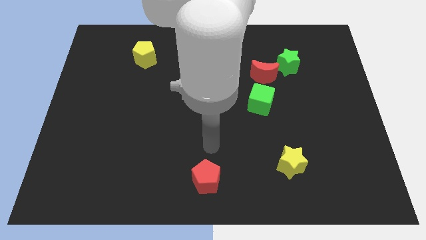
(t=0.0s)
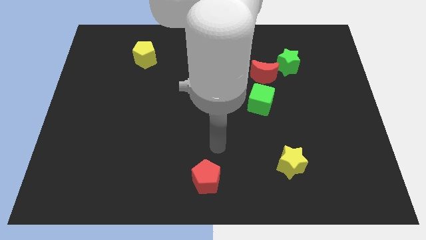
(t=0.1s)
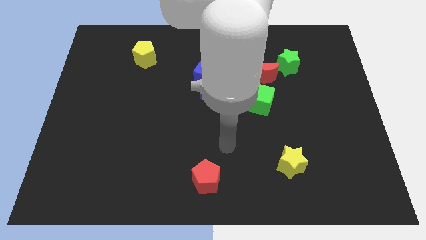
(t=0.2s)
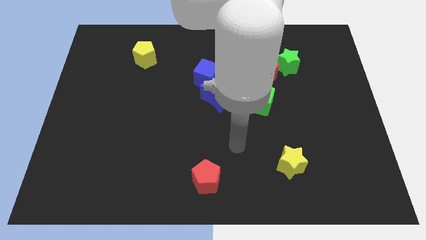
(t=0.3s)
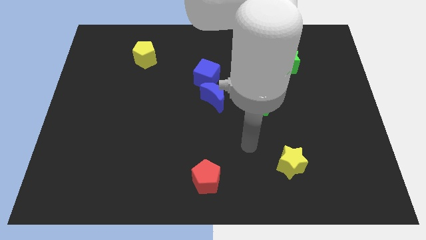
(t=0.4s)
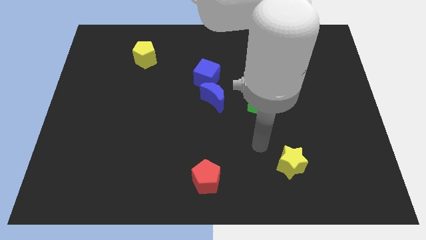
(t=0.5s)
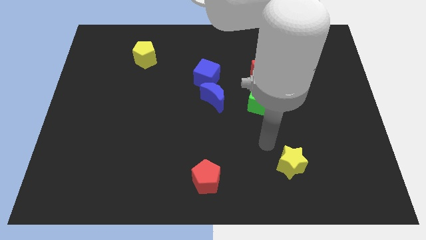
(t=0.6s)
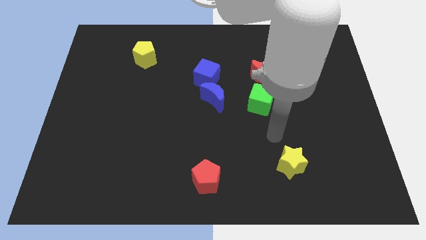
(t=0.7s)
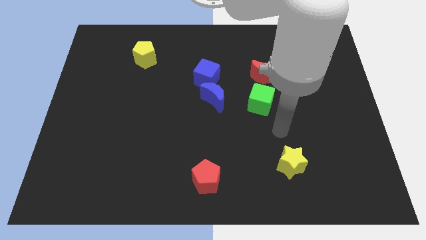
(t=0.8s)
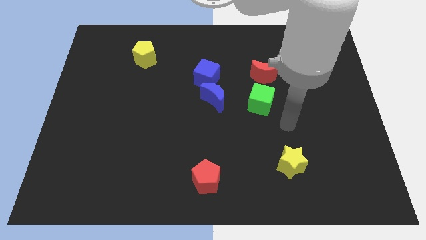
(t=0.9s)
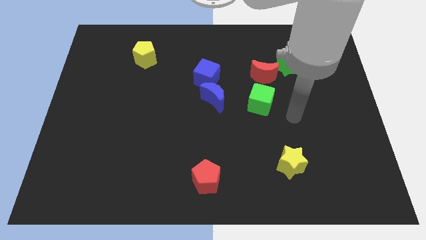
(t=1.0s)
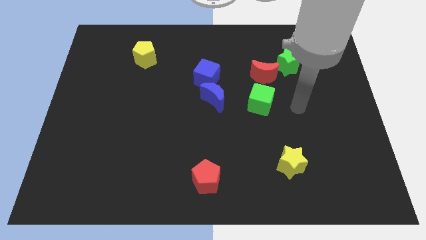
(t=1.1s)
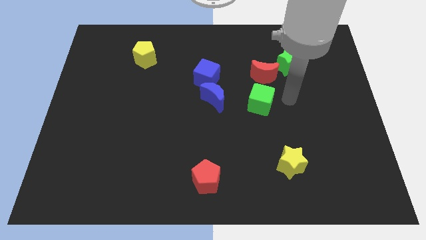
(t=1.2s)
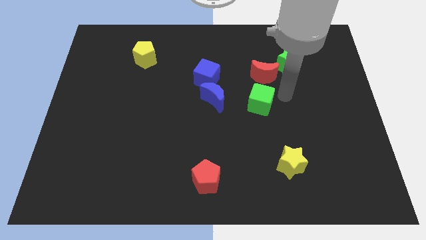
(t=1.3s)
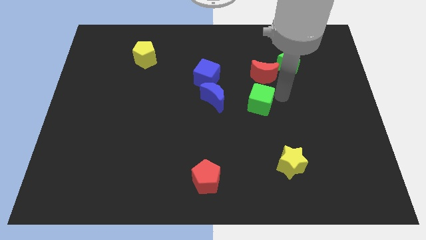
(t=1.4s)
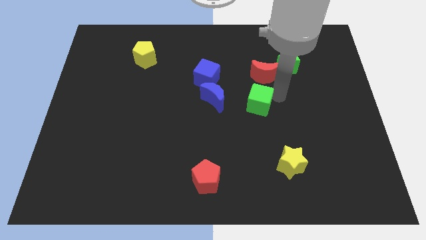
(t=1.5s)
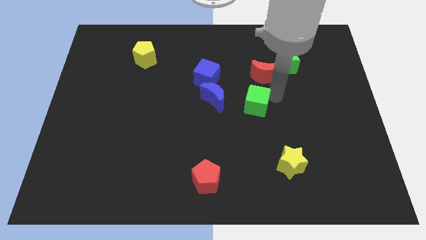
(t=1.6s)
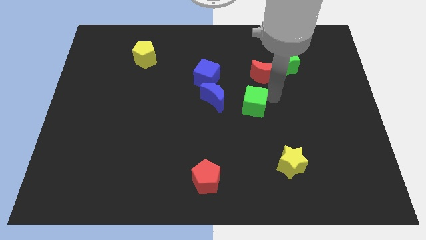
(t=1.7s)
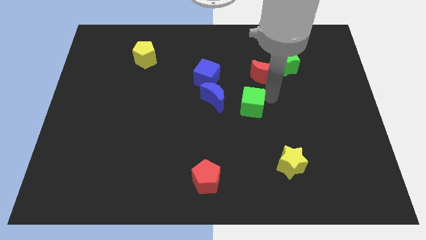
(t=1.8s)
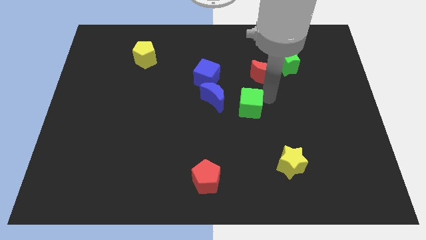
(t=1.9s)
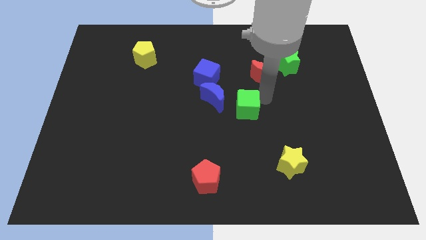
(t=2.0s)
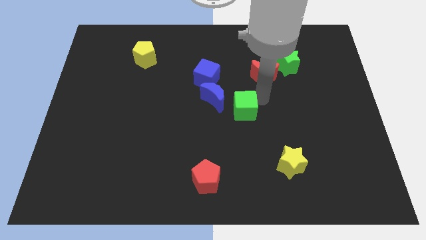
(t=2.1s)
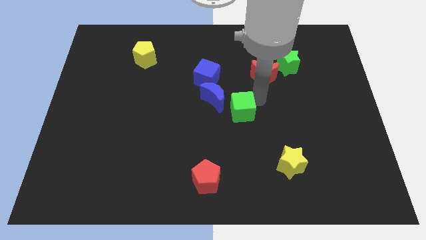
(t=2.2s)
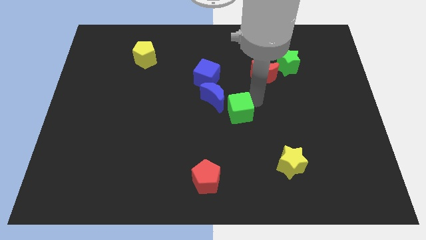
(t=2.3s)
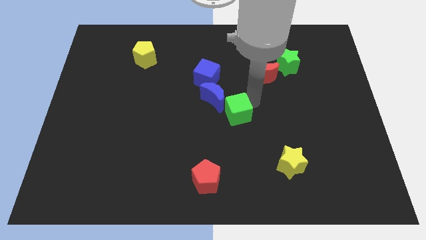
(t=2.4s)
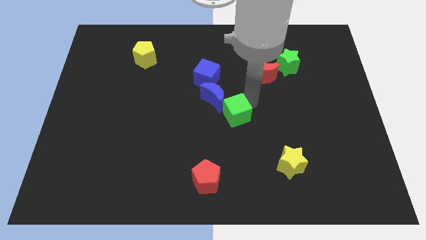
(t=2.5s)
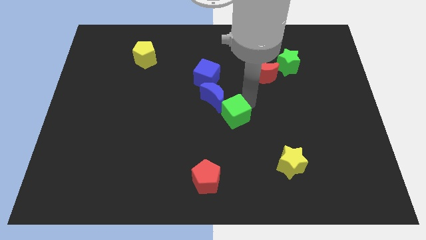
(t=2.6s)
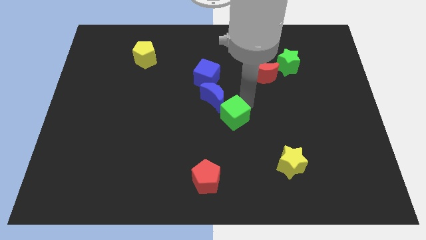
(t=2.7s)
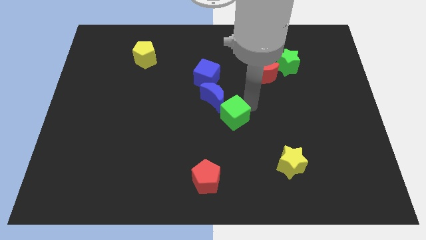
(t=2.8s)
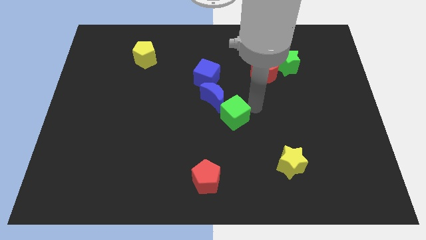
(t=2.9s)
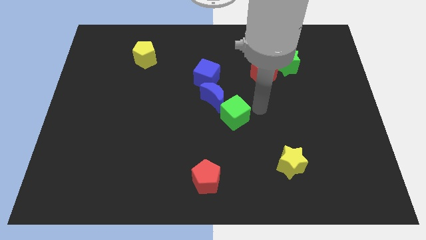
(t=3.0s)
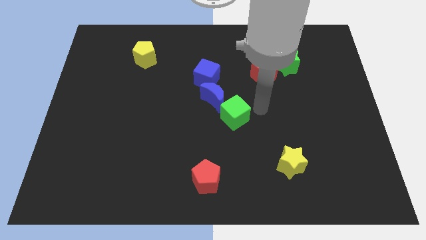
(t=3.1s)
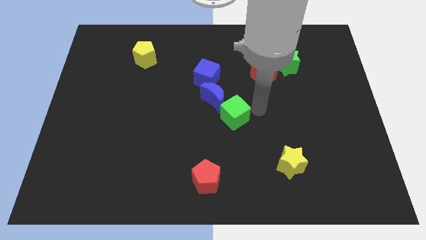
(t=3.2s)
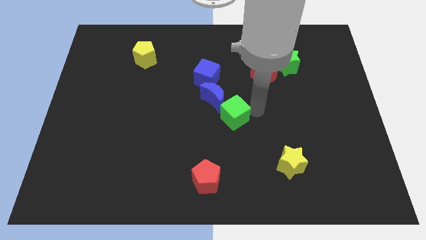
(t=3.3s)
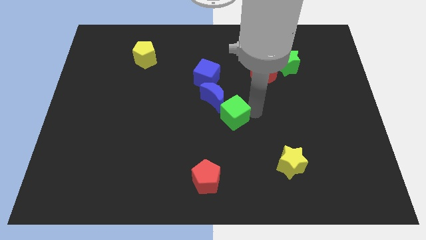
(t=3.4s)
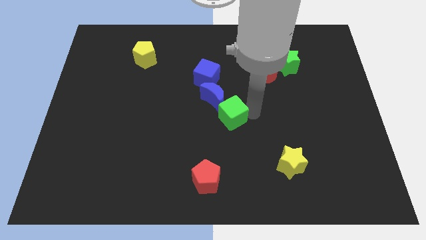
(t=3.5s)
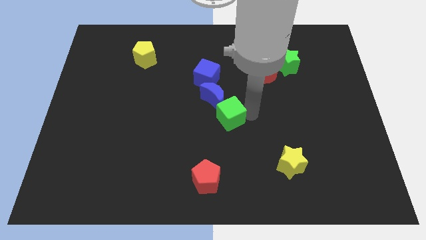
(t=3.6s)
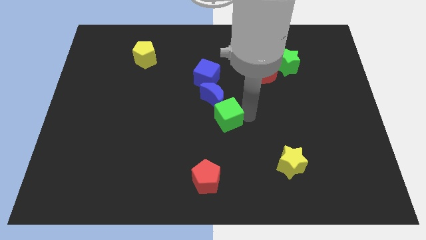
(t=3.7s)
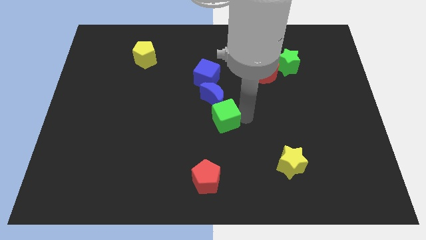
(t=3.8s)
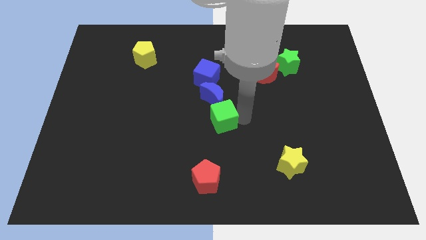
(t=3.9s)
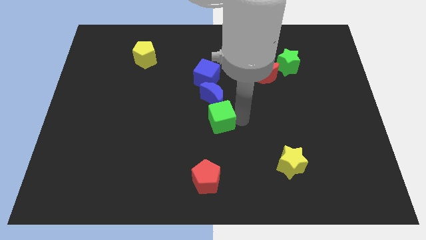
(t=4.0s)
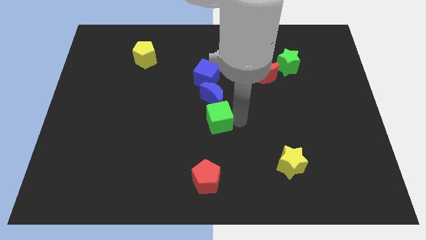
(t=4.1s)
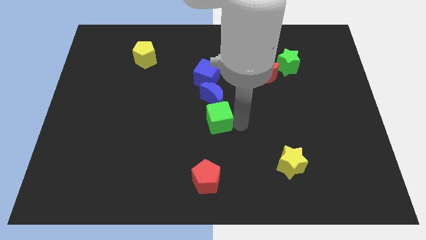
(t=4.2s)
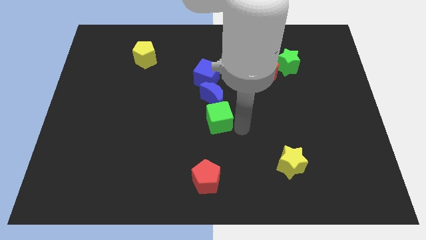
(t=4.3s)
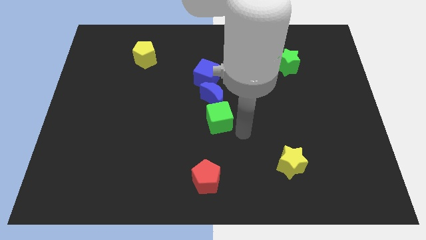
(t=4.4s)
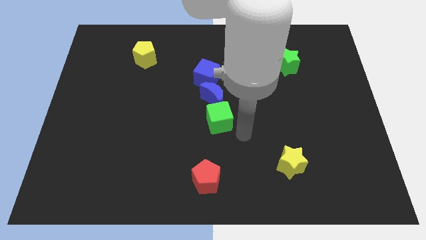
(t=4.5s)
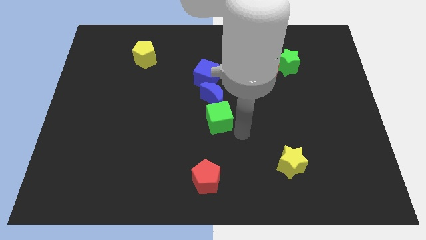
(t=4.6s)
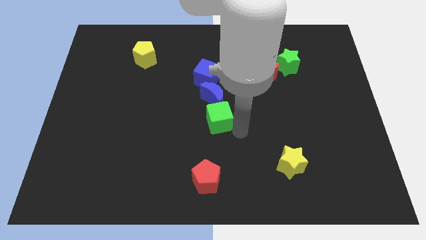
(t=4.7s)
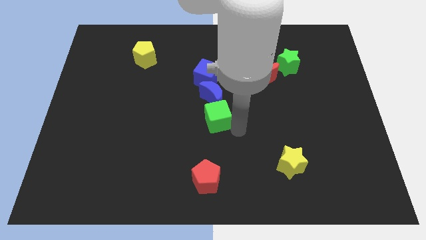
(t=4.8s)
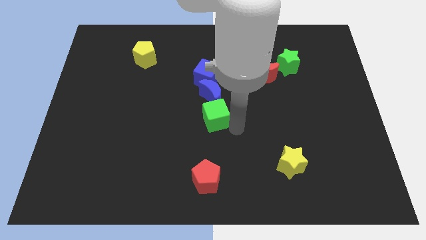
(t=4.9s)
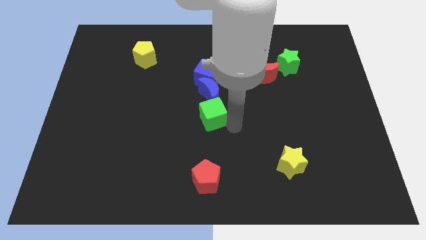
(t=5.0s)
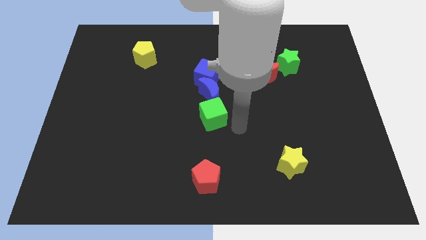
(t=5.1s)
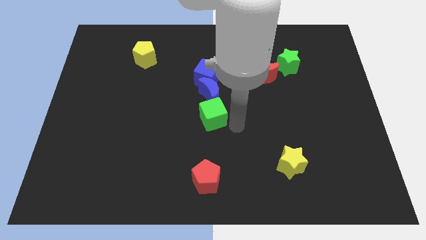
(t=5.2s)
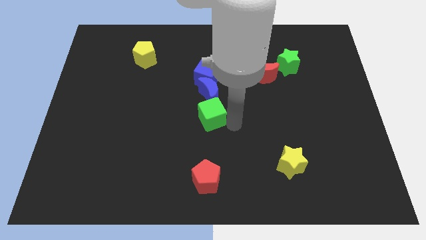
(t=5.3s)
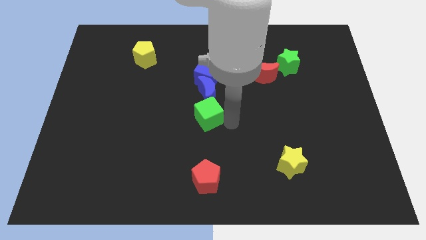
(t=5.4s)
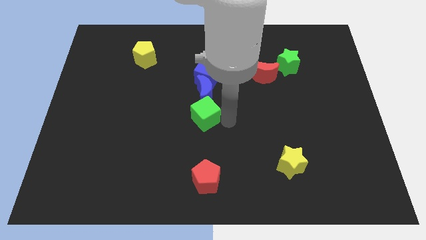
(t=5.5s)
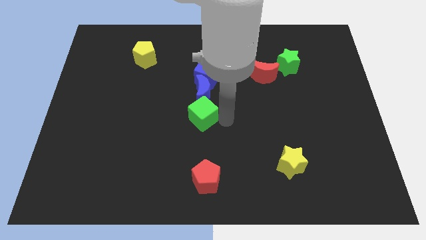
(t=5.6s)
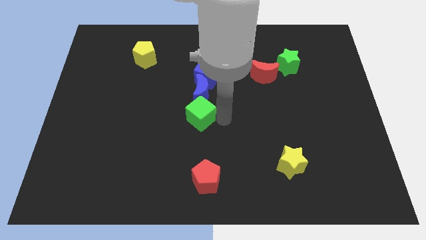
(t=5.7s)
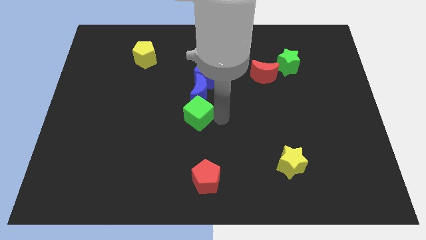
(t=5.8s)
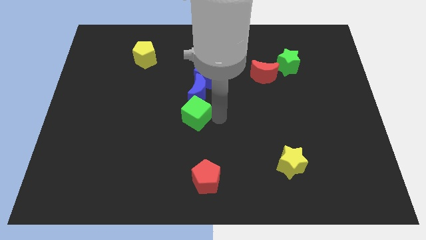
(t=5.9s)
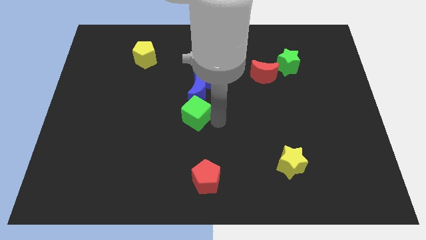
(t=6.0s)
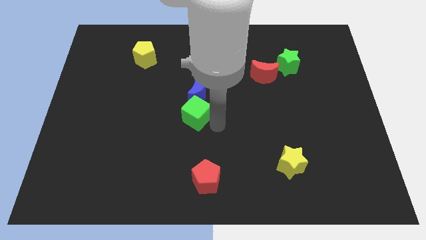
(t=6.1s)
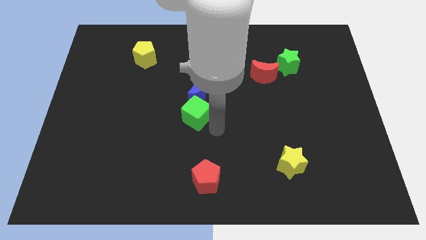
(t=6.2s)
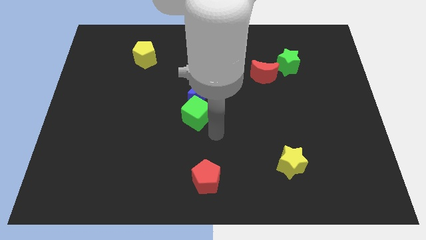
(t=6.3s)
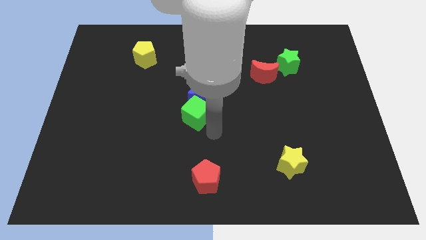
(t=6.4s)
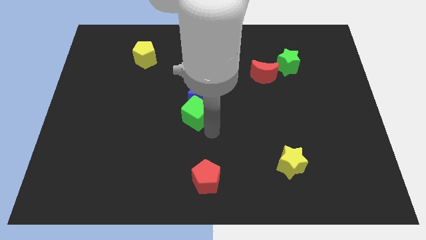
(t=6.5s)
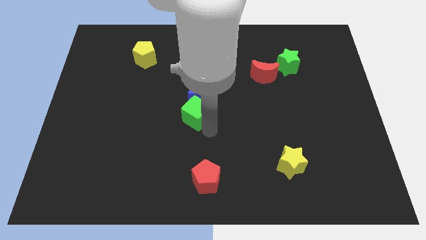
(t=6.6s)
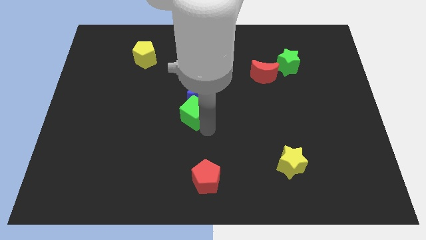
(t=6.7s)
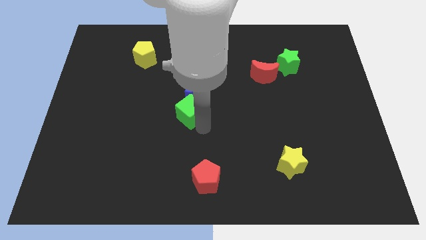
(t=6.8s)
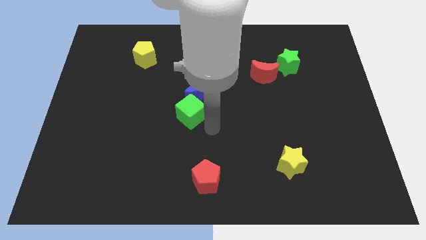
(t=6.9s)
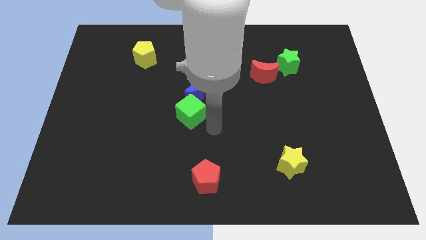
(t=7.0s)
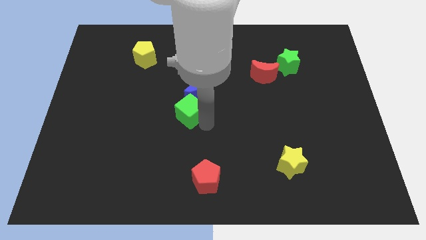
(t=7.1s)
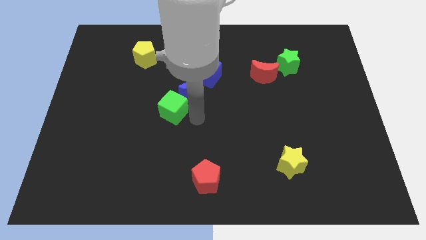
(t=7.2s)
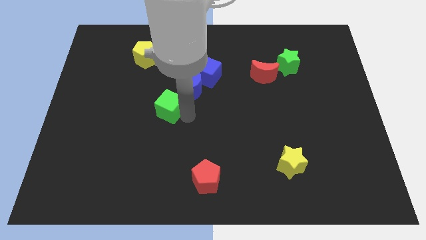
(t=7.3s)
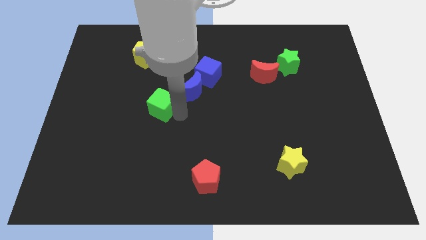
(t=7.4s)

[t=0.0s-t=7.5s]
put the green cube to the left of the blue moon
